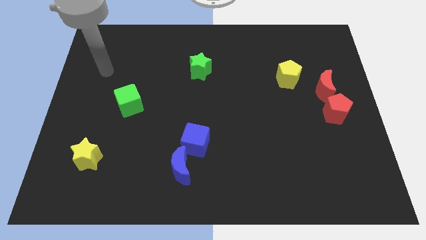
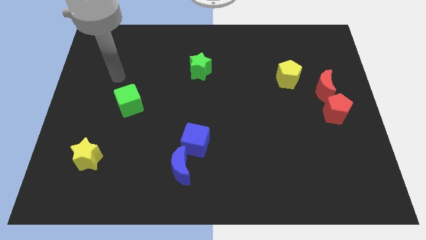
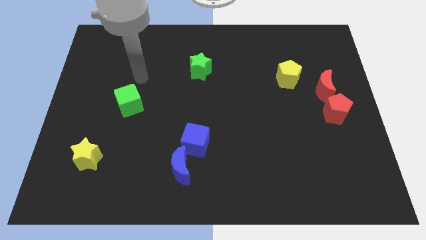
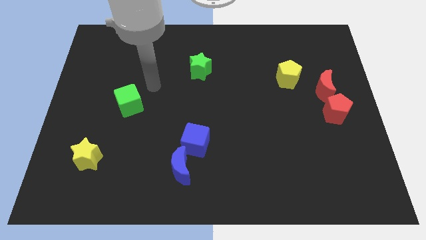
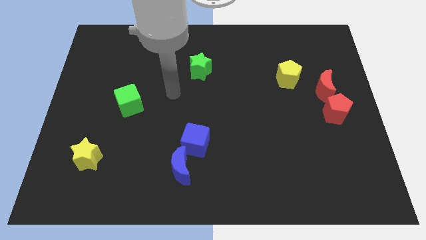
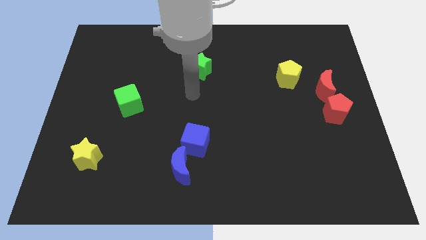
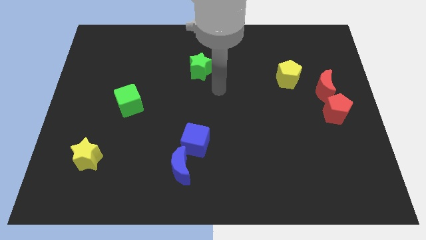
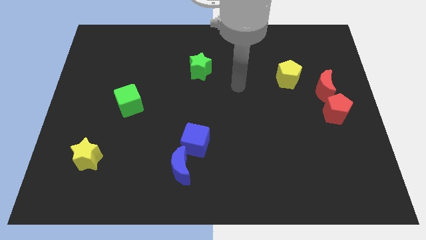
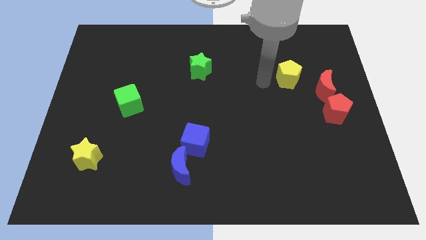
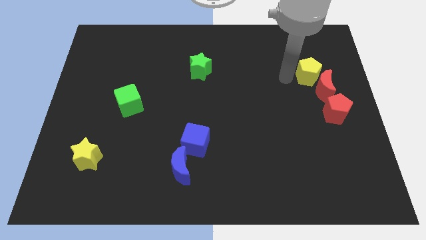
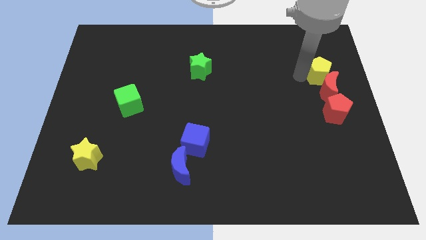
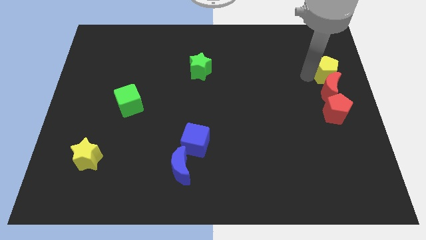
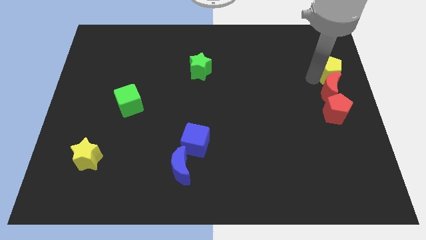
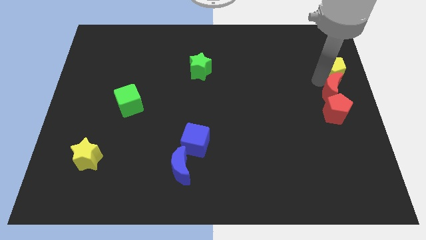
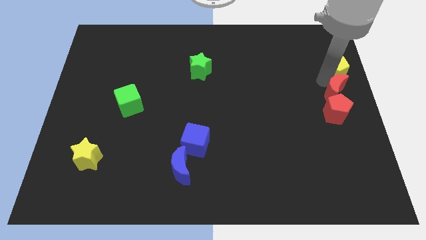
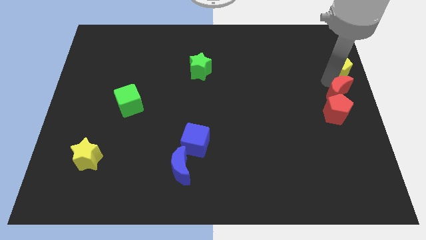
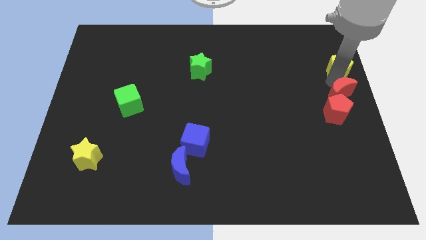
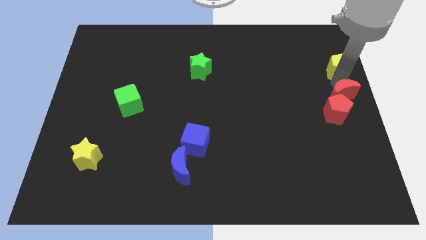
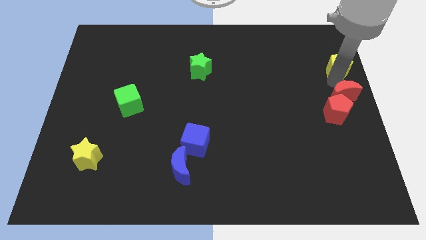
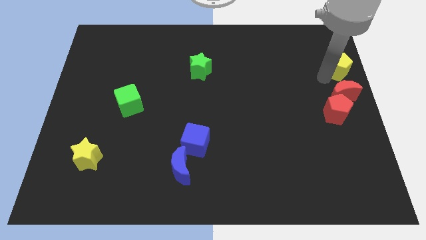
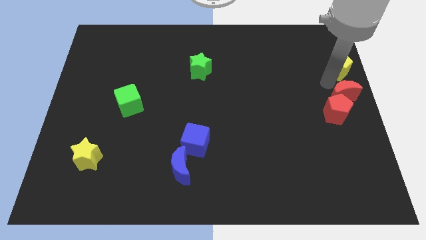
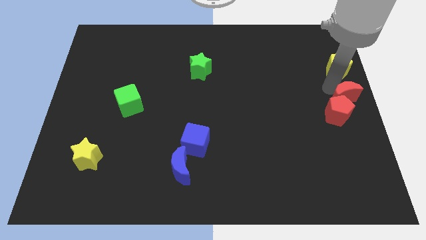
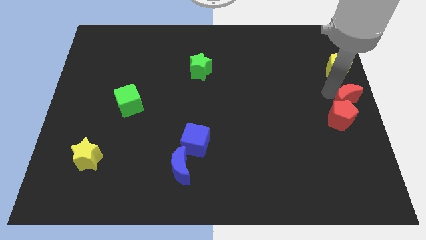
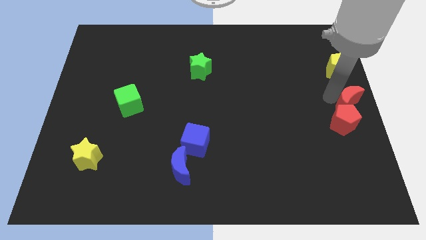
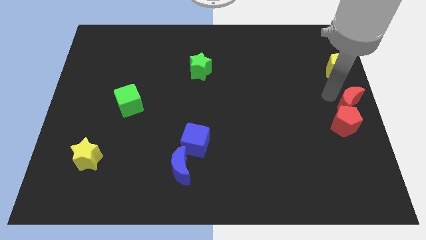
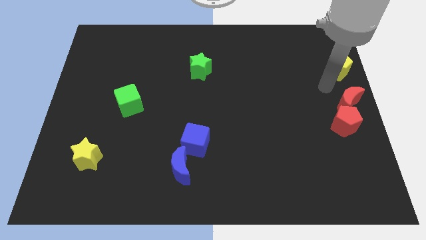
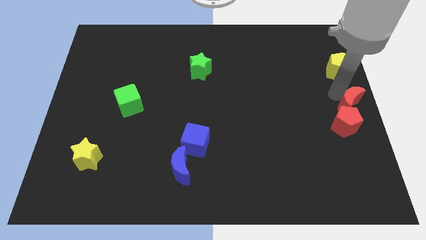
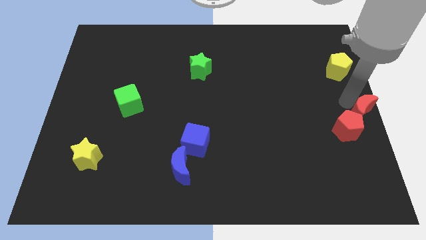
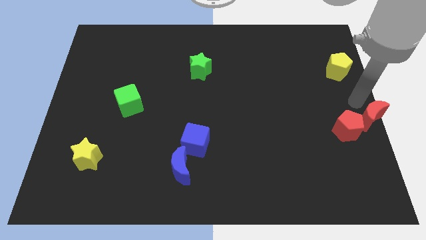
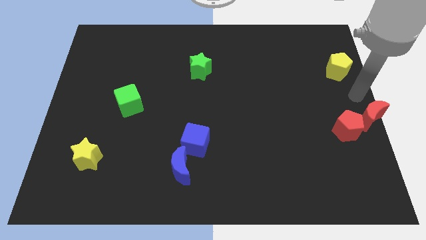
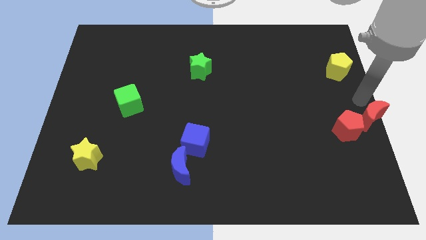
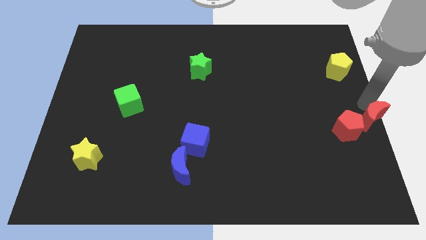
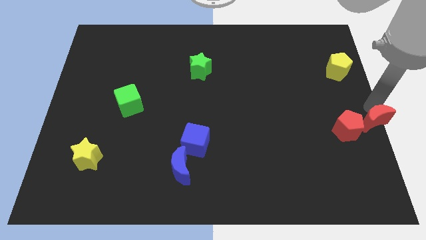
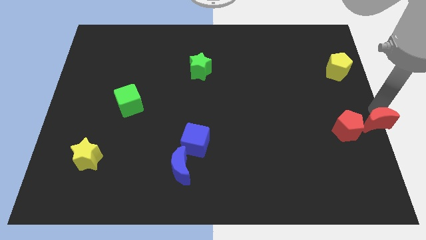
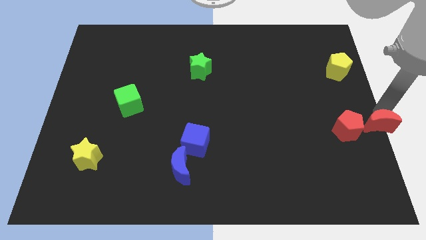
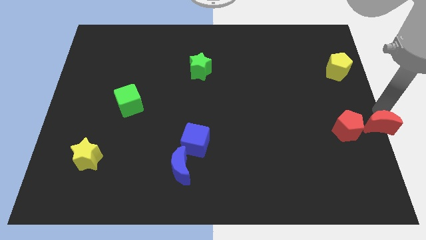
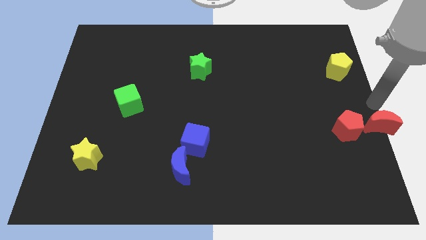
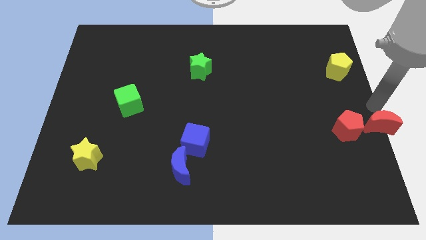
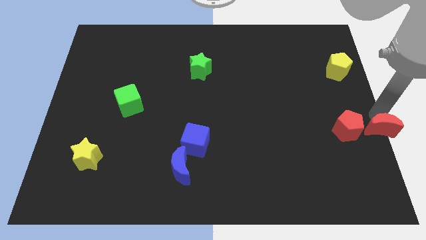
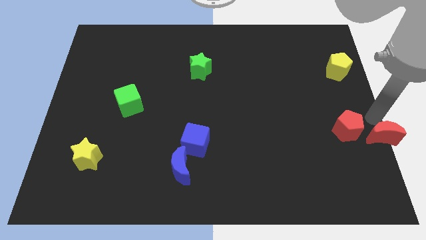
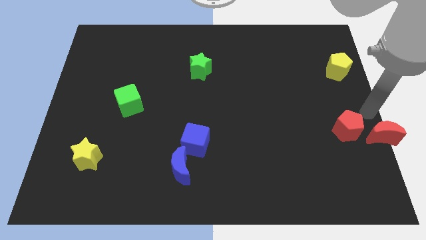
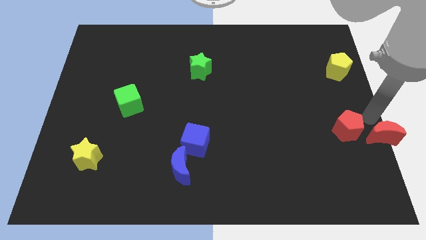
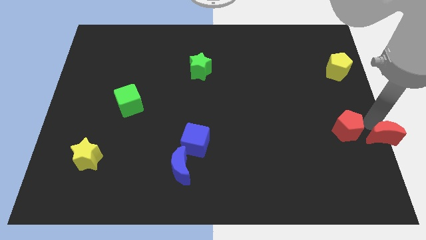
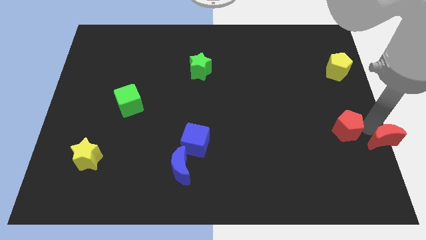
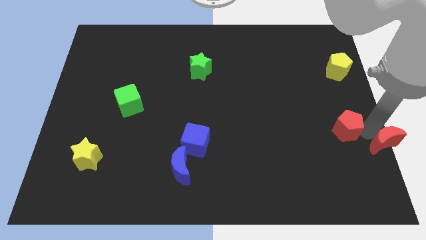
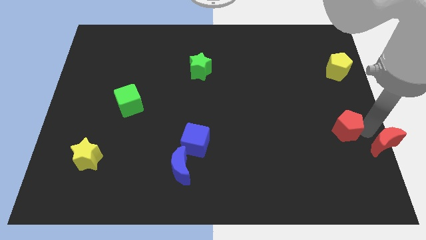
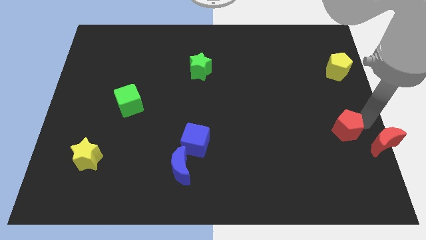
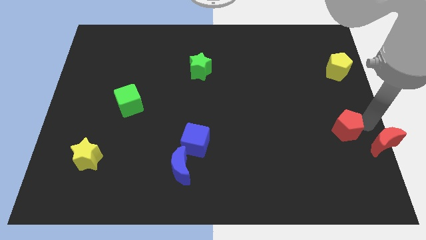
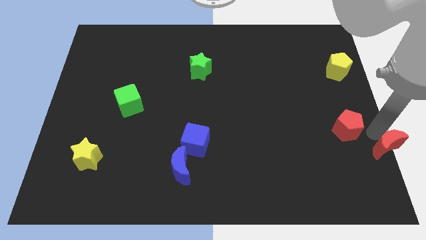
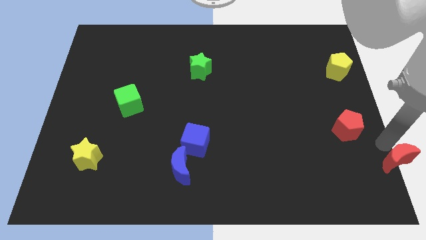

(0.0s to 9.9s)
push the red moon to the lower right corner

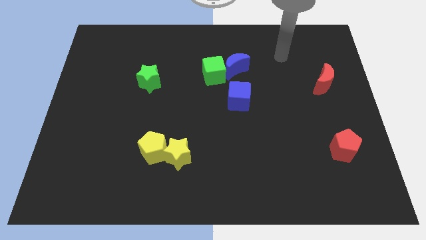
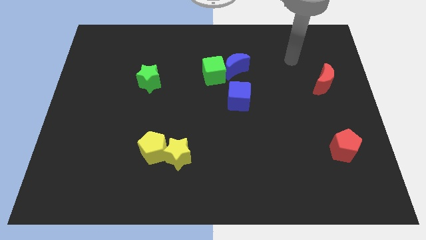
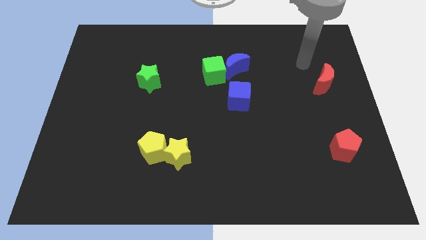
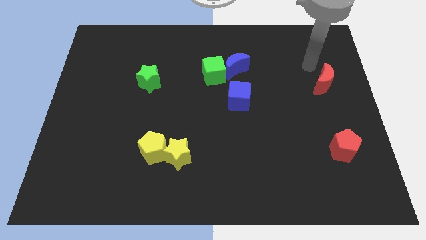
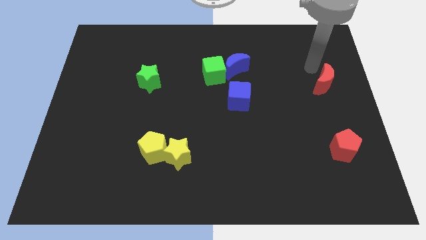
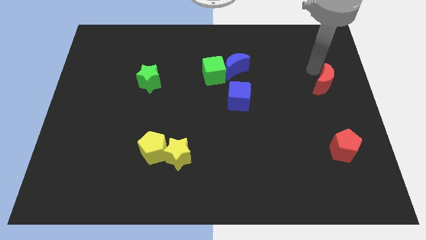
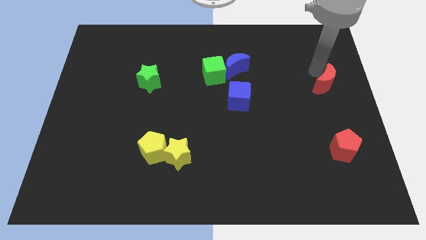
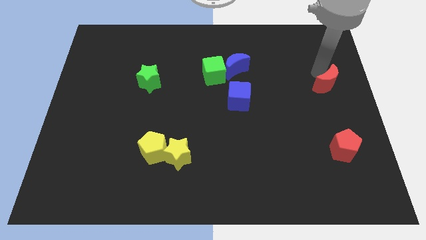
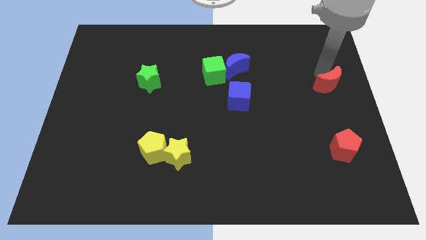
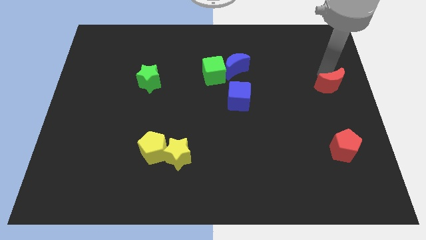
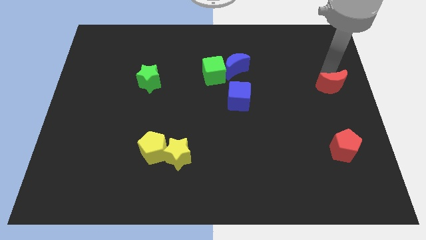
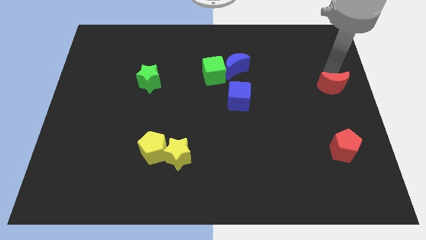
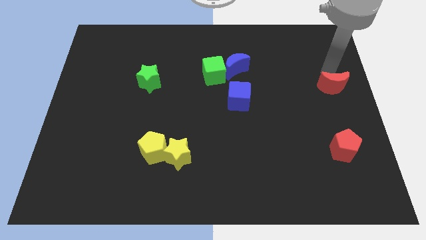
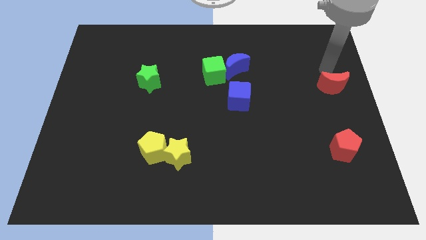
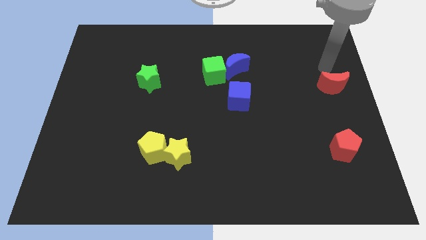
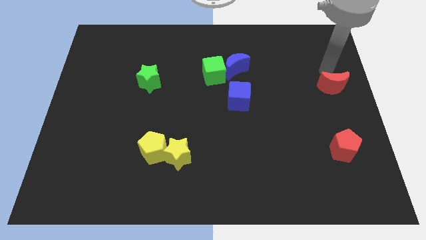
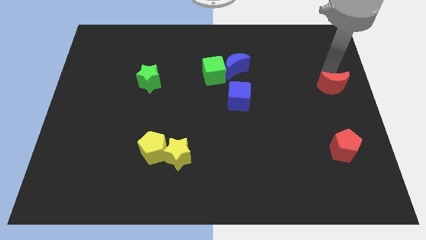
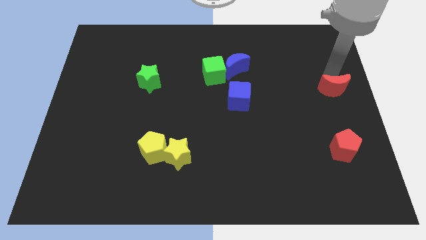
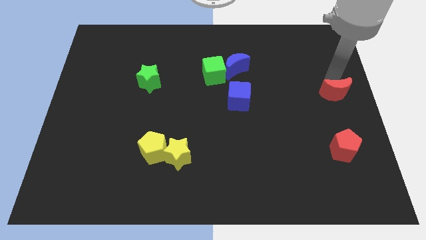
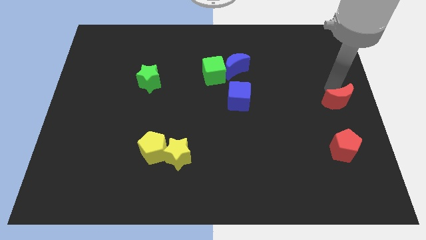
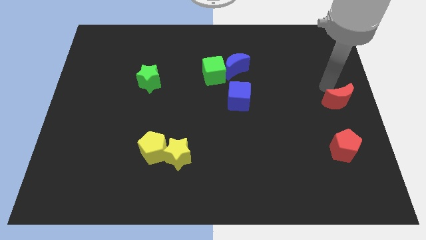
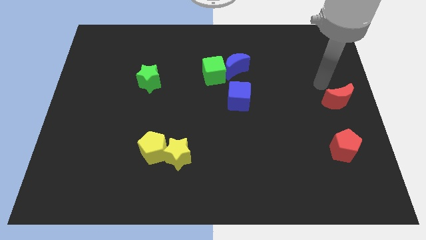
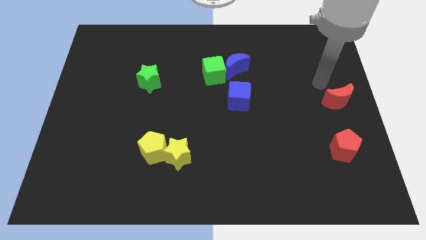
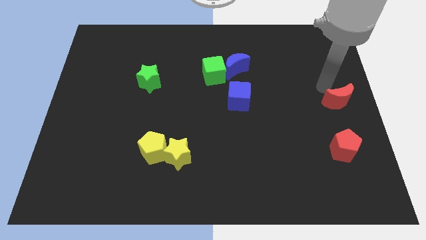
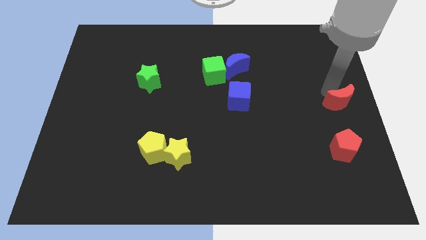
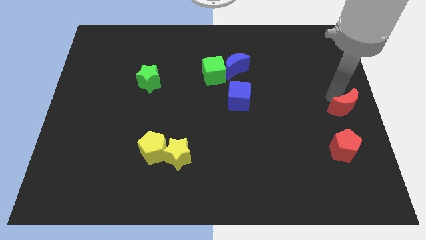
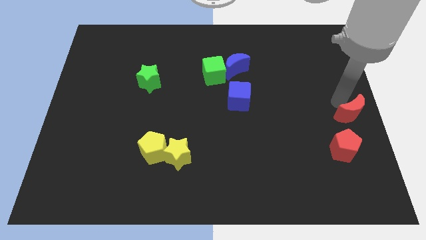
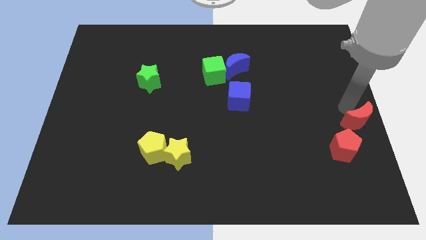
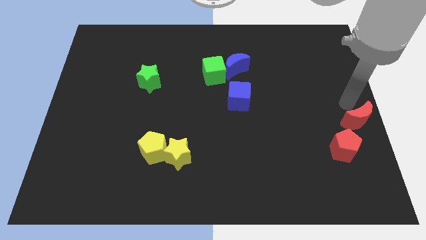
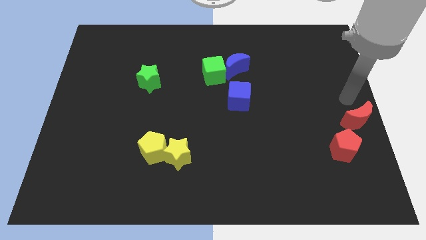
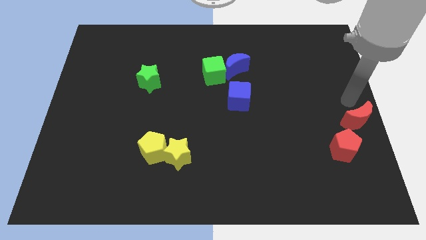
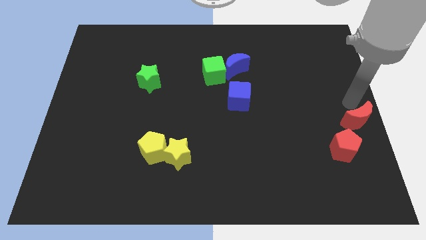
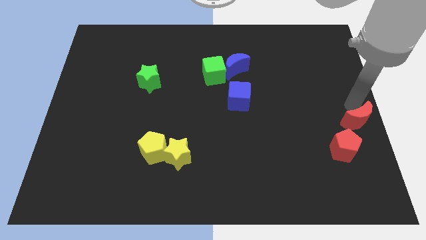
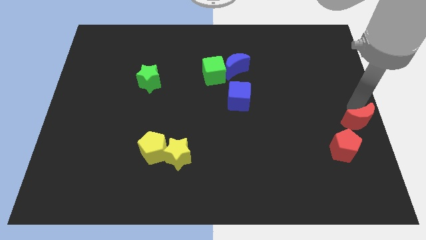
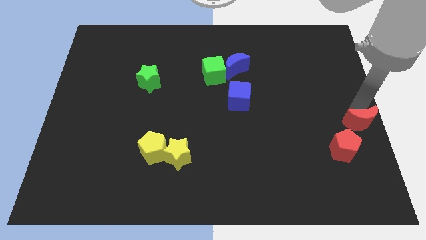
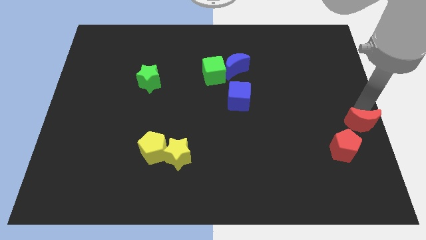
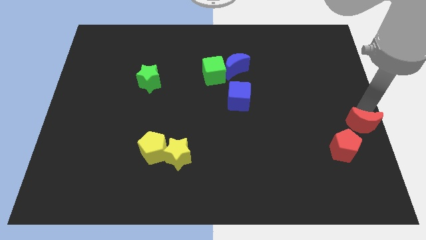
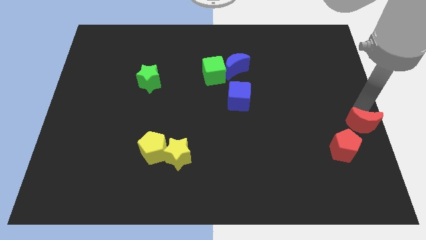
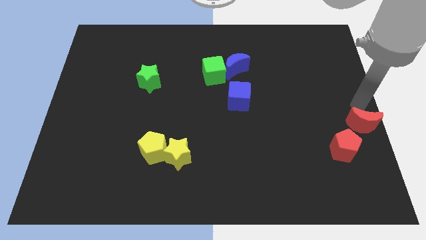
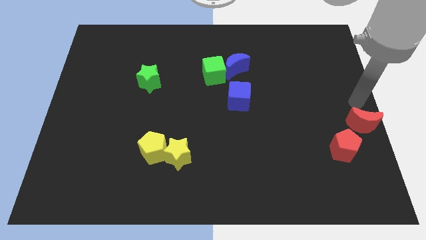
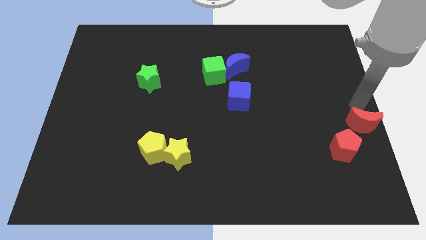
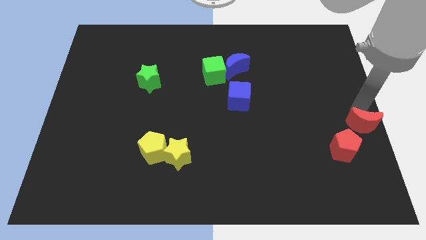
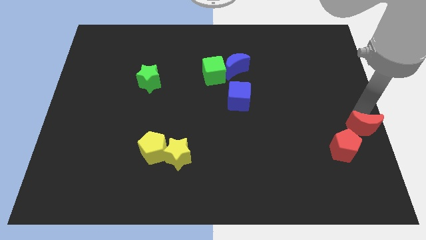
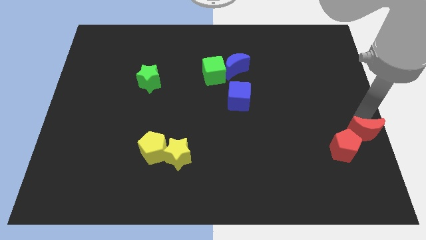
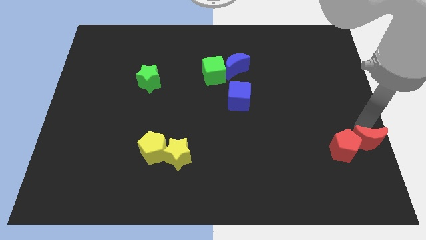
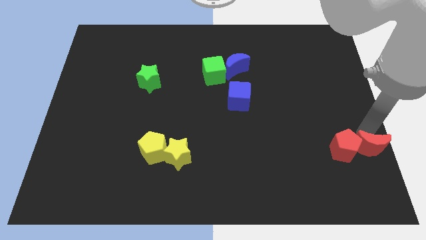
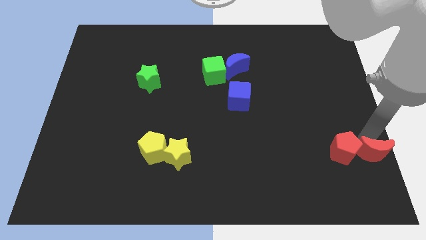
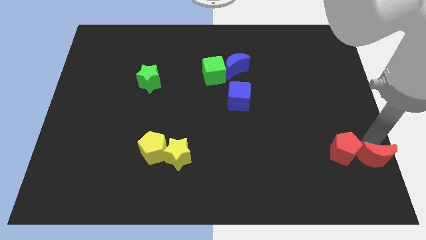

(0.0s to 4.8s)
slide the red moon to the bottom right
